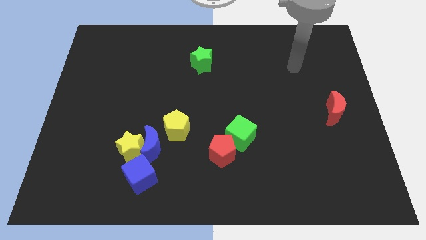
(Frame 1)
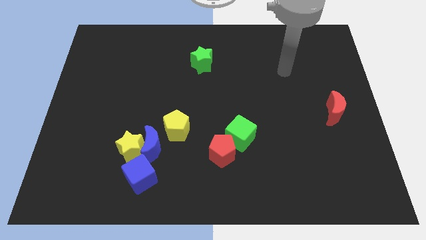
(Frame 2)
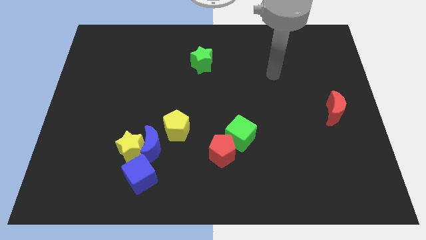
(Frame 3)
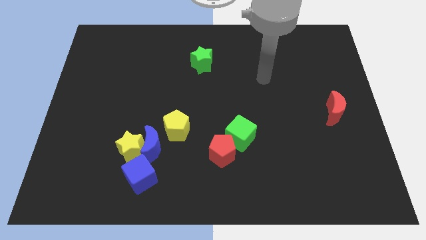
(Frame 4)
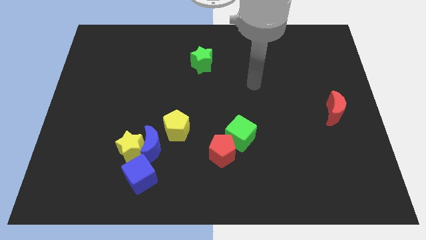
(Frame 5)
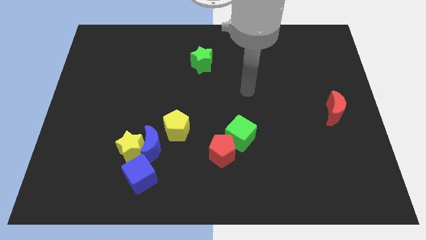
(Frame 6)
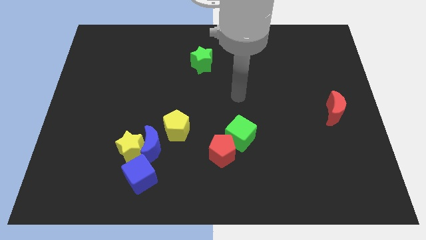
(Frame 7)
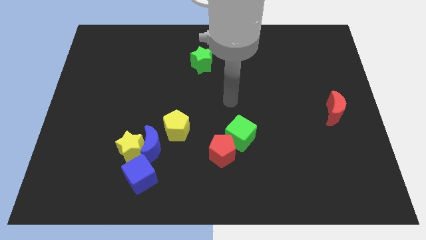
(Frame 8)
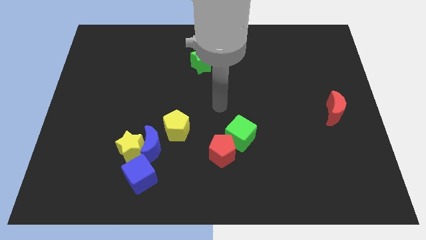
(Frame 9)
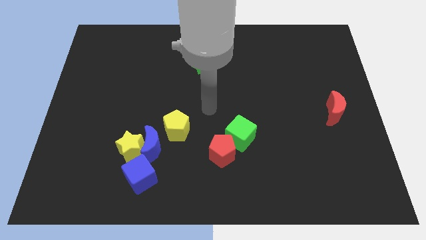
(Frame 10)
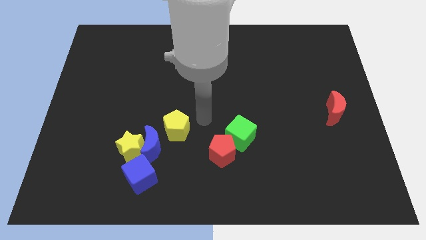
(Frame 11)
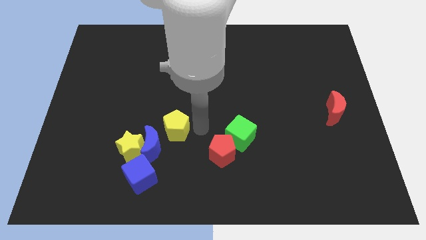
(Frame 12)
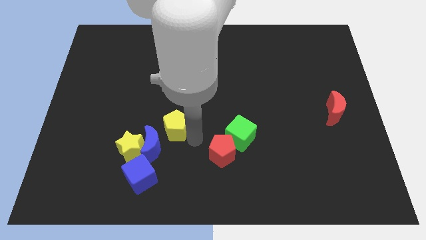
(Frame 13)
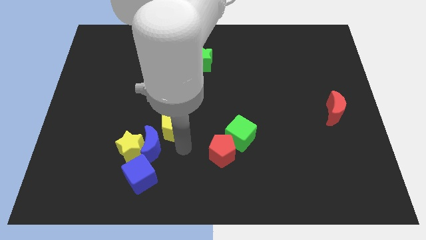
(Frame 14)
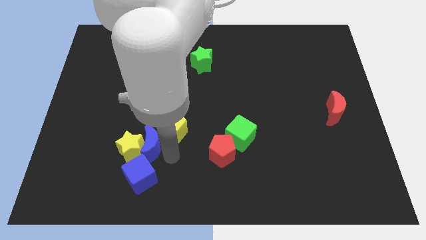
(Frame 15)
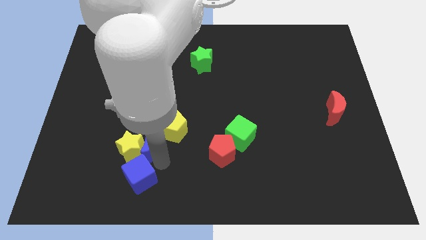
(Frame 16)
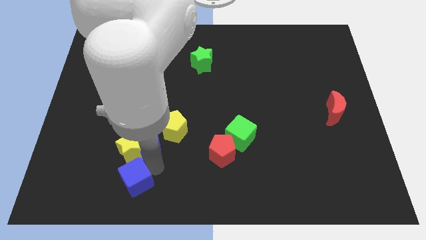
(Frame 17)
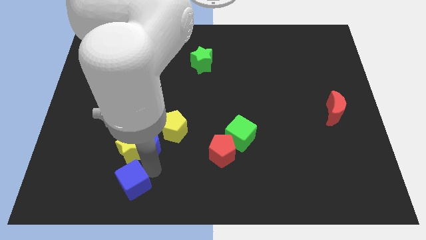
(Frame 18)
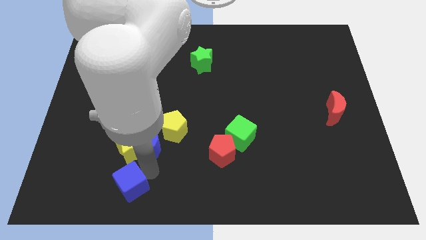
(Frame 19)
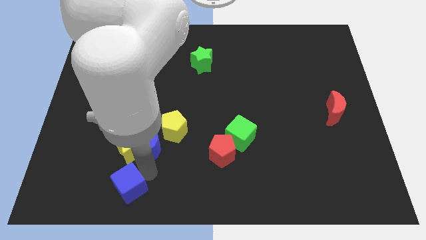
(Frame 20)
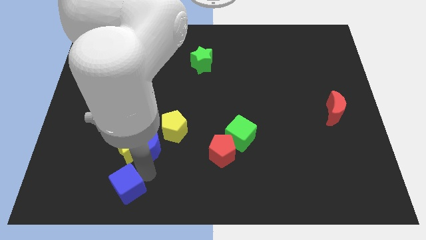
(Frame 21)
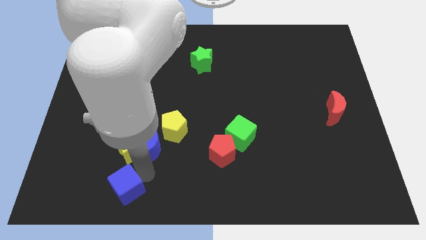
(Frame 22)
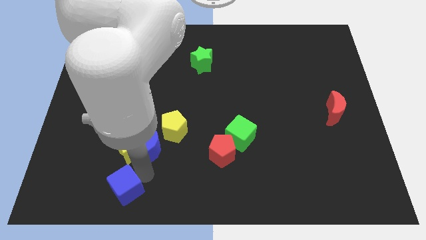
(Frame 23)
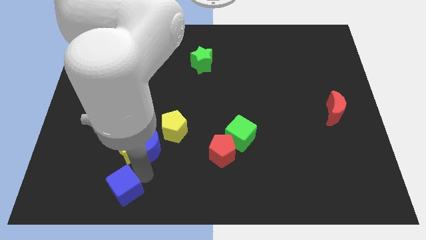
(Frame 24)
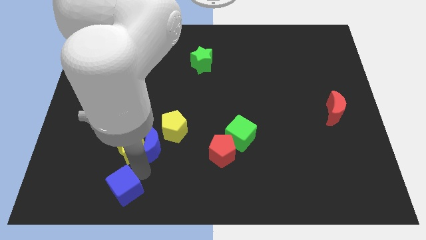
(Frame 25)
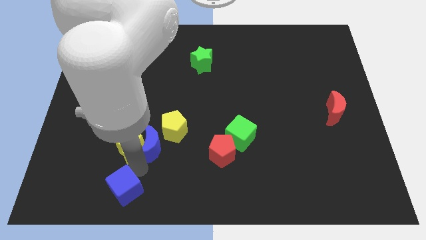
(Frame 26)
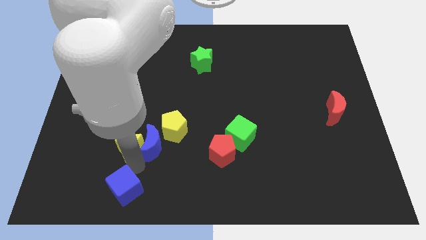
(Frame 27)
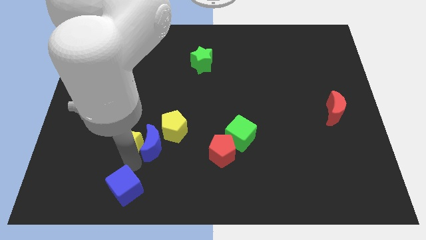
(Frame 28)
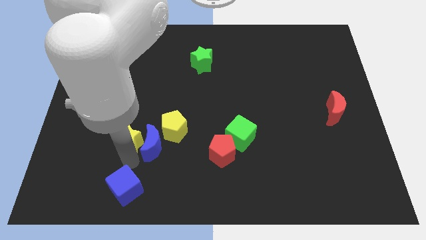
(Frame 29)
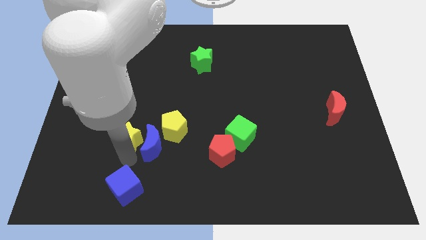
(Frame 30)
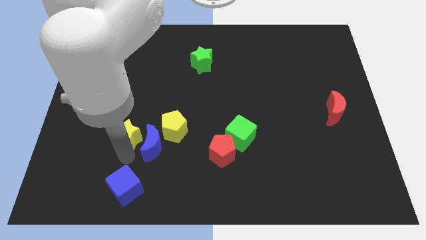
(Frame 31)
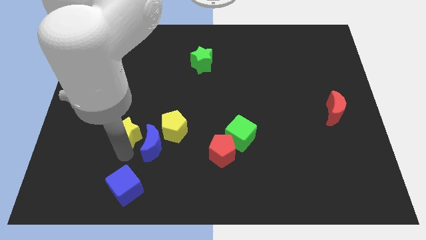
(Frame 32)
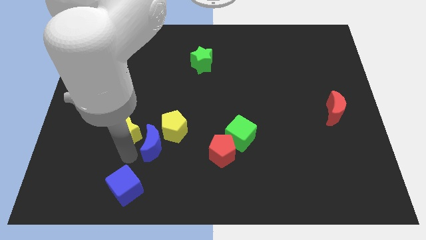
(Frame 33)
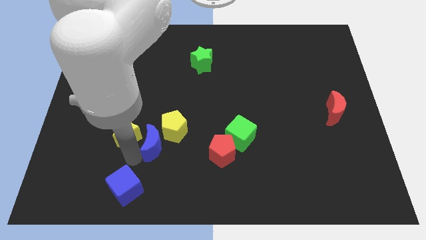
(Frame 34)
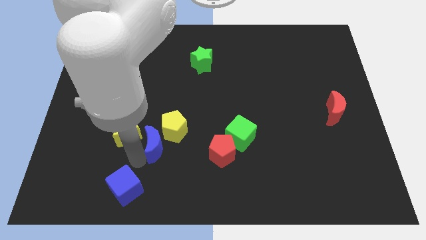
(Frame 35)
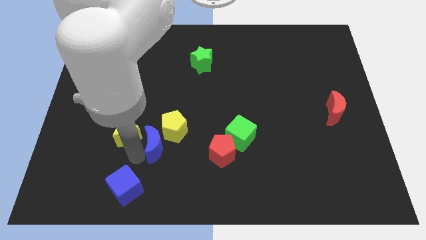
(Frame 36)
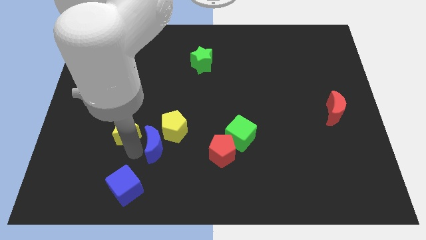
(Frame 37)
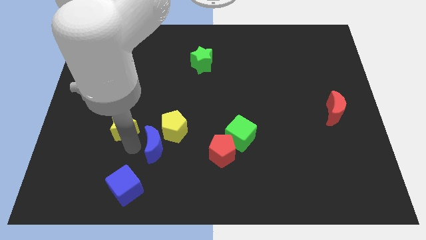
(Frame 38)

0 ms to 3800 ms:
separate the yellow star from the blue moon and blue cube

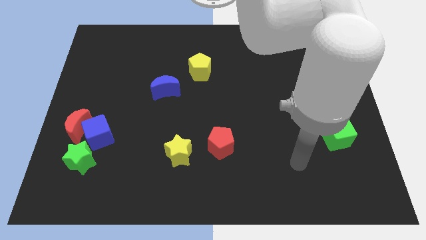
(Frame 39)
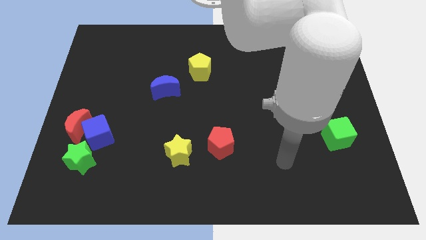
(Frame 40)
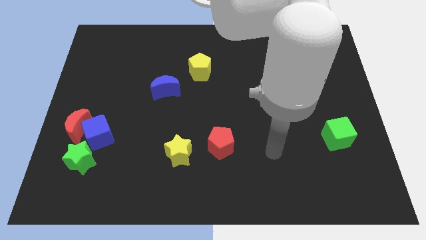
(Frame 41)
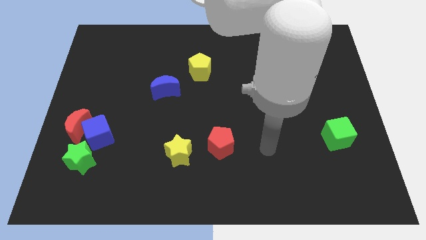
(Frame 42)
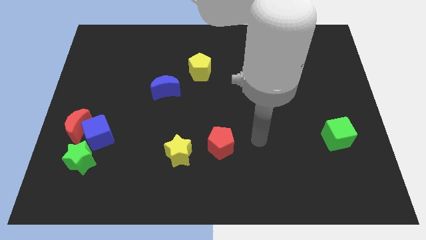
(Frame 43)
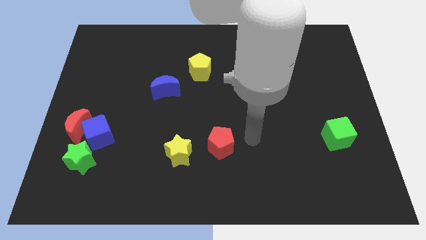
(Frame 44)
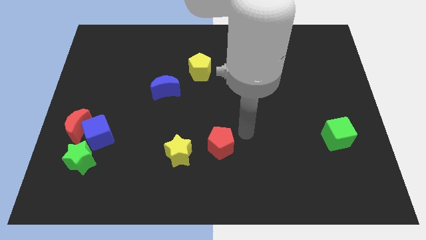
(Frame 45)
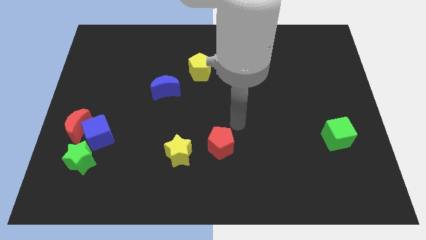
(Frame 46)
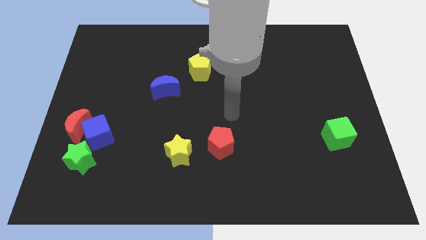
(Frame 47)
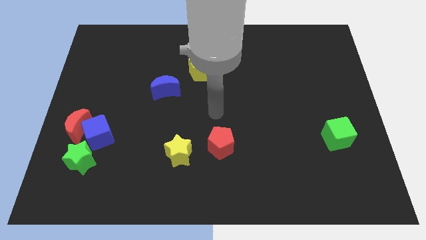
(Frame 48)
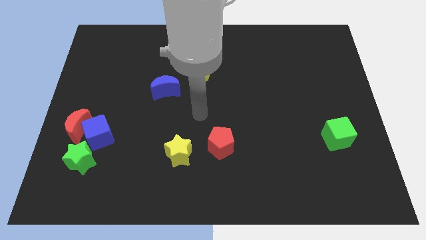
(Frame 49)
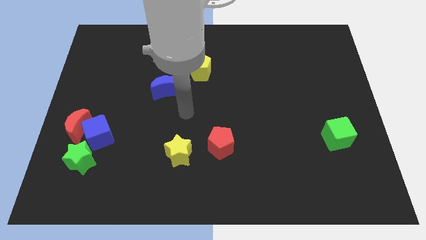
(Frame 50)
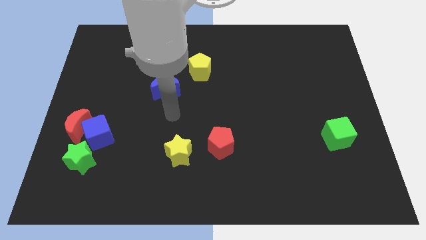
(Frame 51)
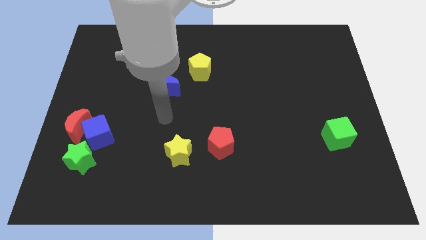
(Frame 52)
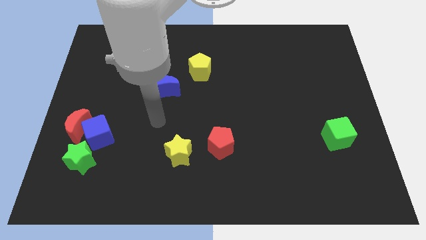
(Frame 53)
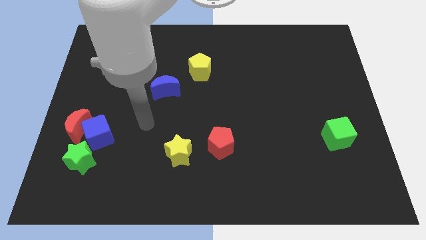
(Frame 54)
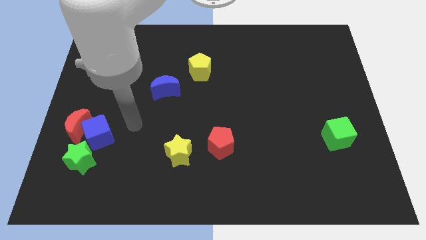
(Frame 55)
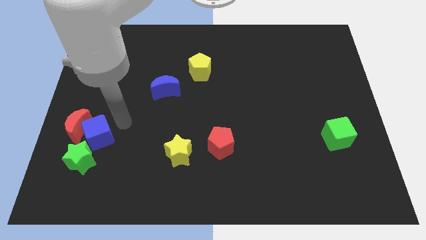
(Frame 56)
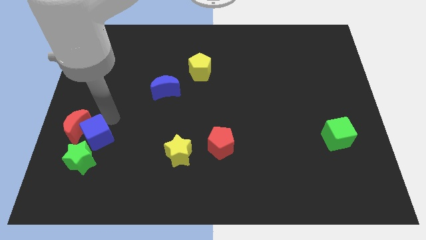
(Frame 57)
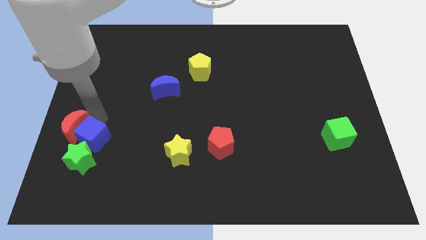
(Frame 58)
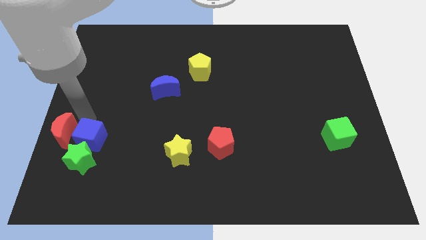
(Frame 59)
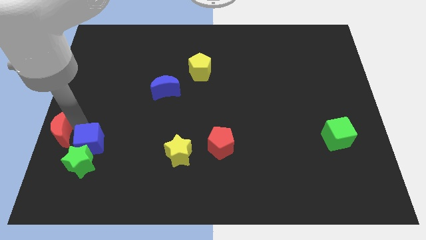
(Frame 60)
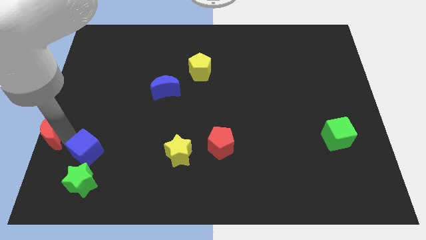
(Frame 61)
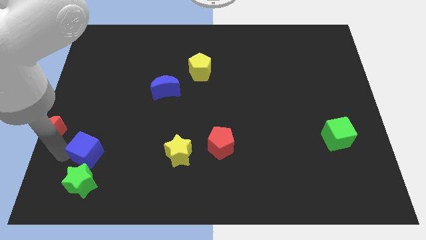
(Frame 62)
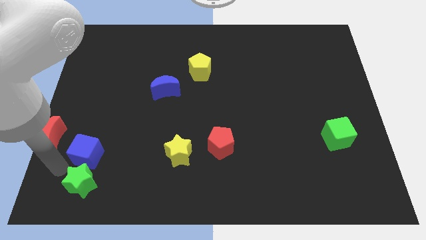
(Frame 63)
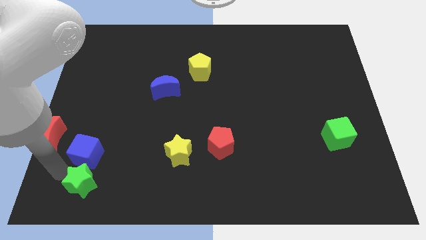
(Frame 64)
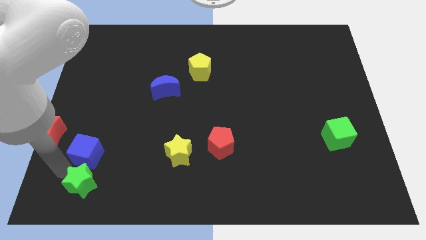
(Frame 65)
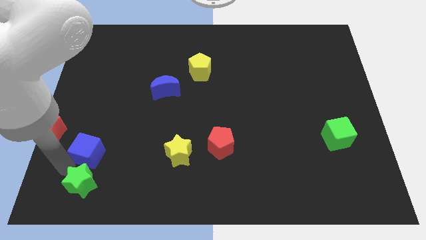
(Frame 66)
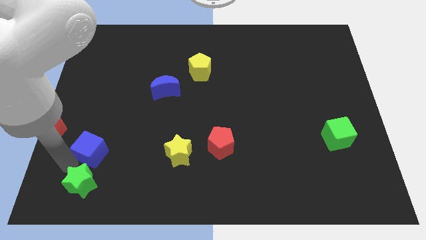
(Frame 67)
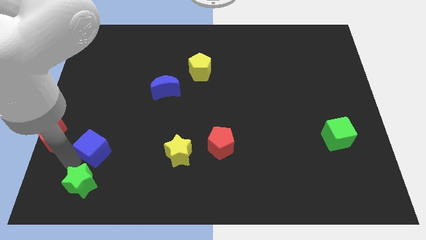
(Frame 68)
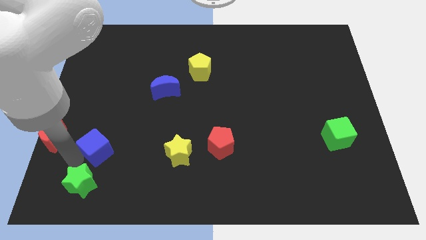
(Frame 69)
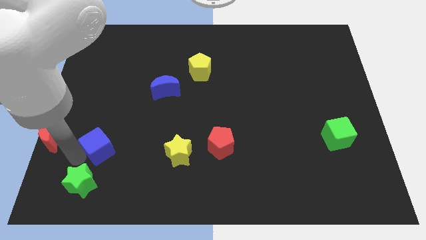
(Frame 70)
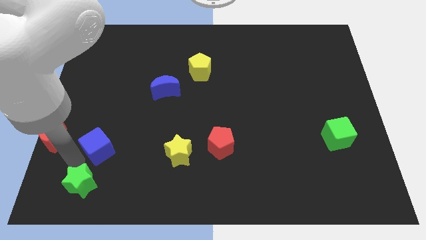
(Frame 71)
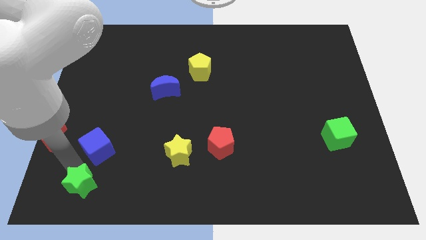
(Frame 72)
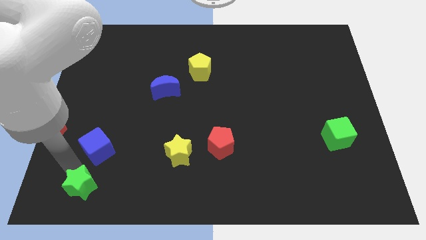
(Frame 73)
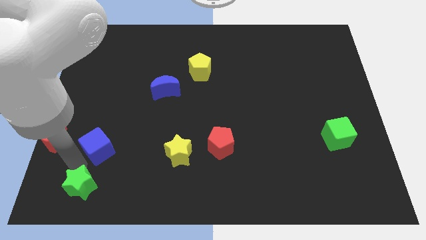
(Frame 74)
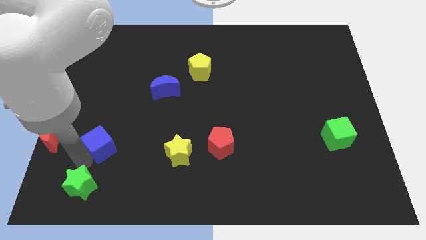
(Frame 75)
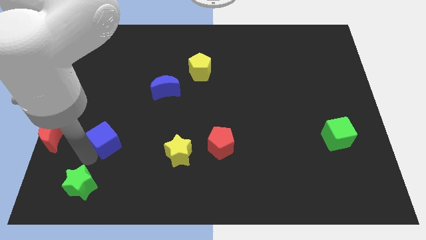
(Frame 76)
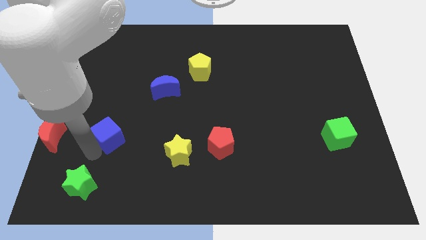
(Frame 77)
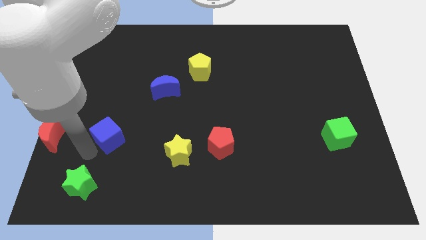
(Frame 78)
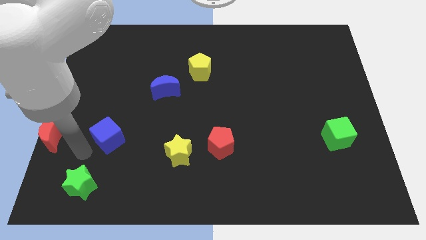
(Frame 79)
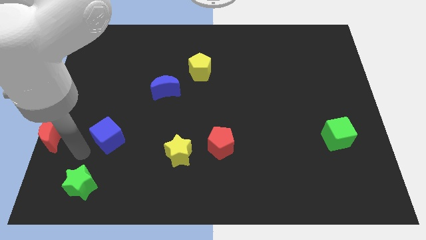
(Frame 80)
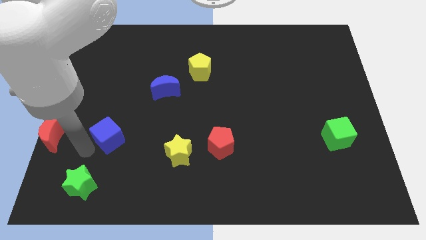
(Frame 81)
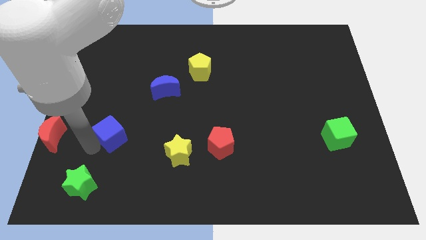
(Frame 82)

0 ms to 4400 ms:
pull the blue cube apart from the red moon and green star

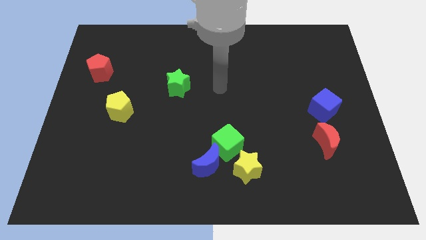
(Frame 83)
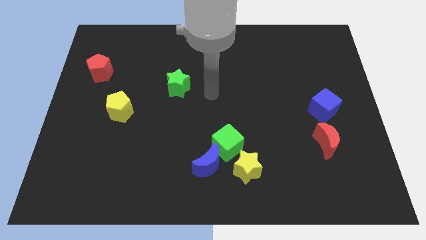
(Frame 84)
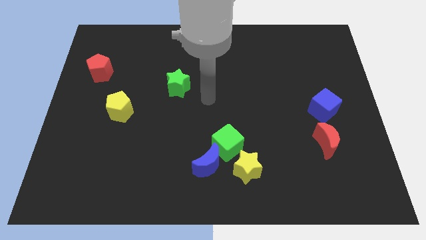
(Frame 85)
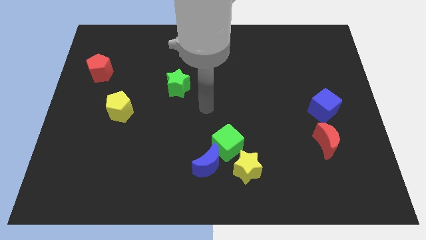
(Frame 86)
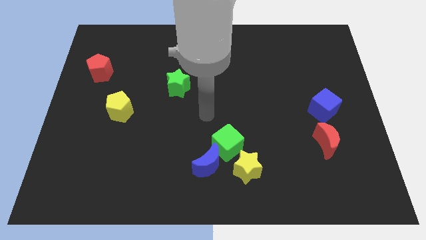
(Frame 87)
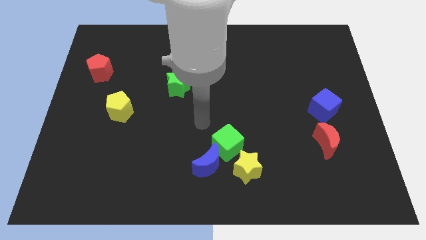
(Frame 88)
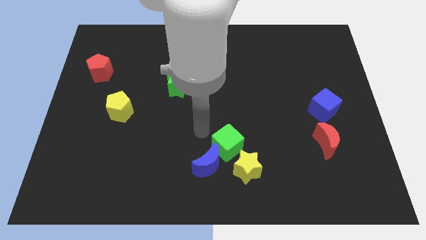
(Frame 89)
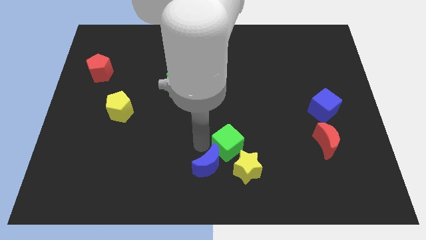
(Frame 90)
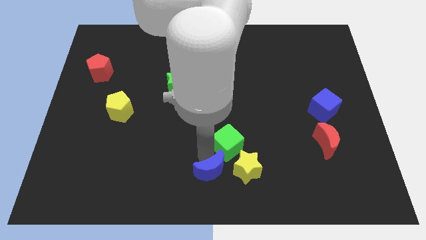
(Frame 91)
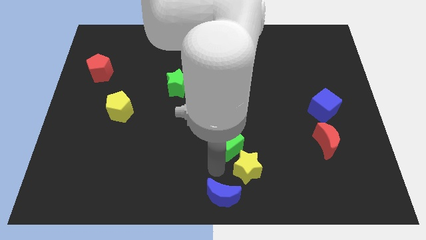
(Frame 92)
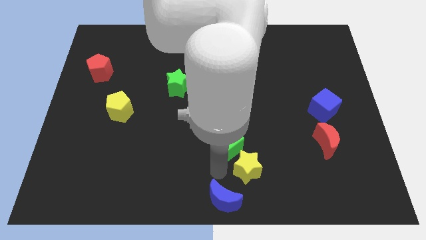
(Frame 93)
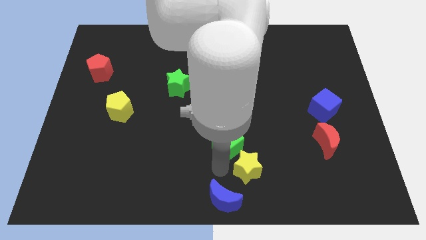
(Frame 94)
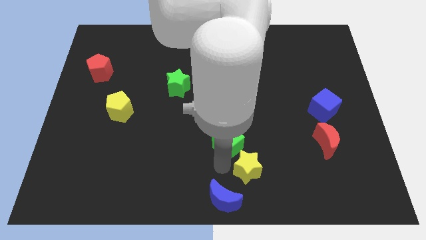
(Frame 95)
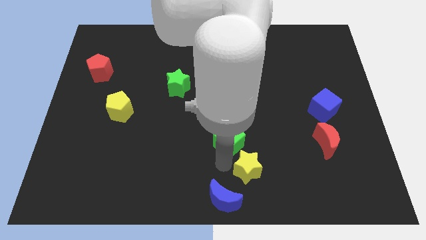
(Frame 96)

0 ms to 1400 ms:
separate the green cube from the blue moon and yellow star
